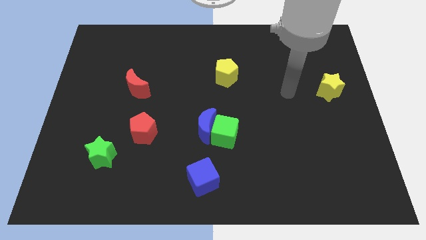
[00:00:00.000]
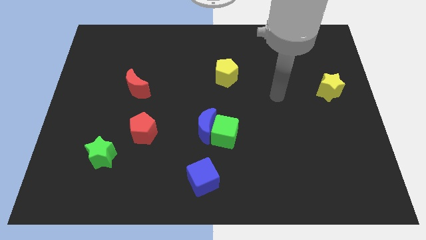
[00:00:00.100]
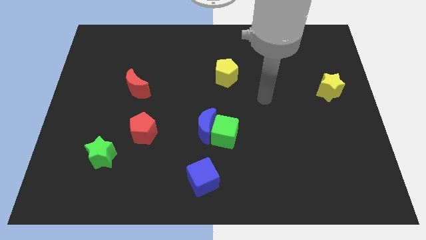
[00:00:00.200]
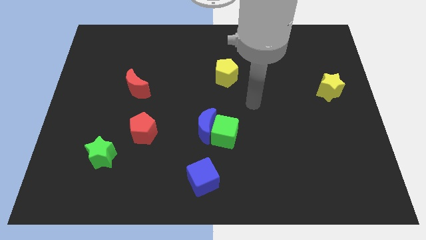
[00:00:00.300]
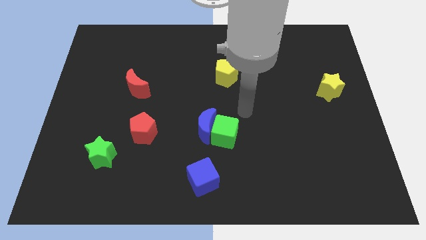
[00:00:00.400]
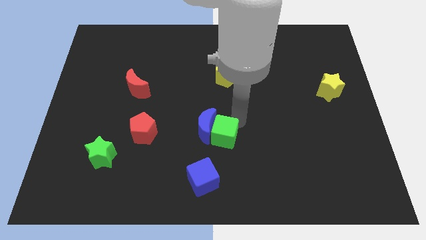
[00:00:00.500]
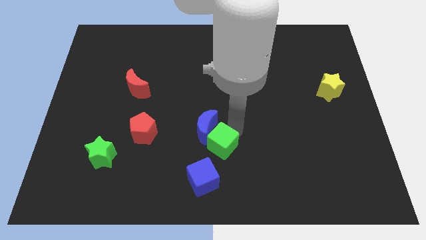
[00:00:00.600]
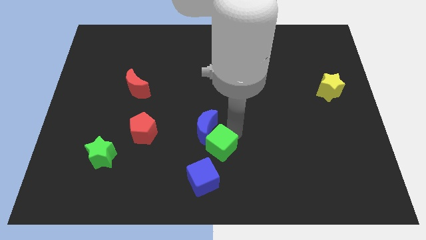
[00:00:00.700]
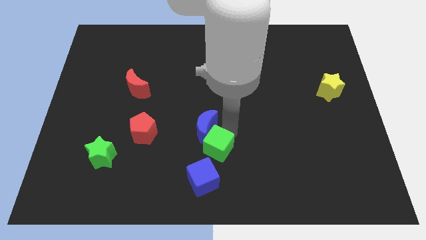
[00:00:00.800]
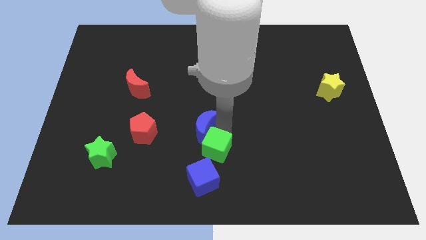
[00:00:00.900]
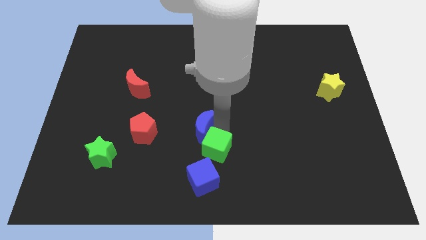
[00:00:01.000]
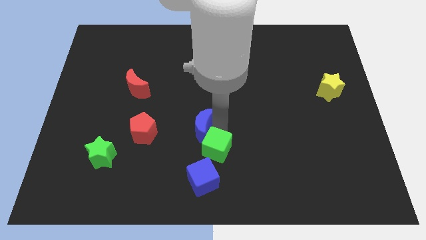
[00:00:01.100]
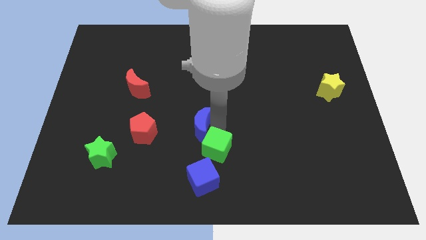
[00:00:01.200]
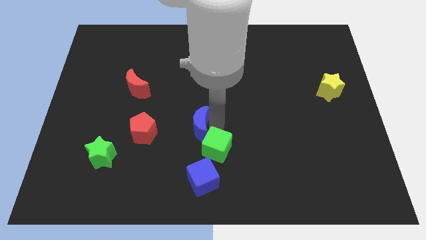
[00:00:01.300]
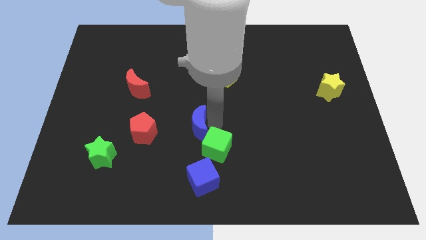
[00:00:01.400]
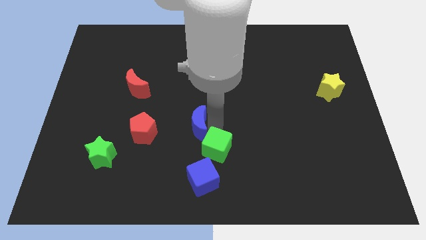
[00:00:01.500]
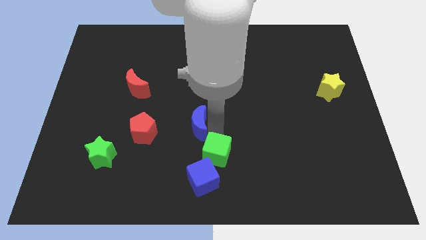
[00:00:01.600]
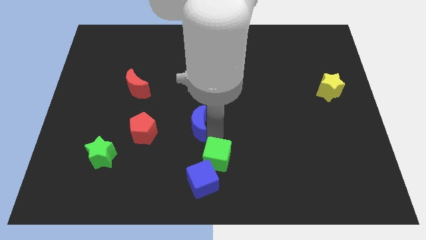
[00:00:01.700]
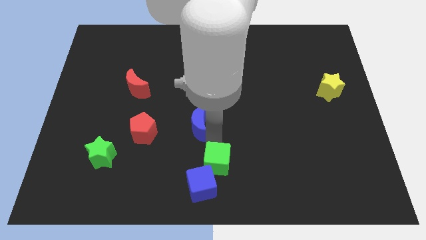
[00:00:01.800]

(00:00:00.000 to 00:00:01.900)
pull the blue moon apart from the green cube

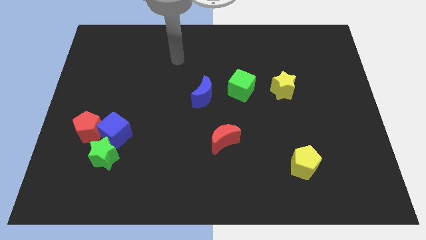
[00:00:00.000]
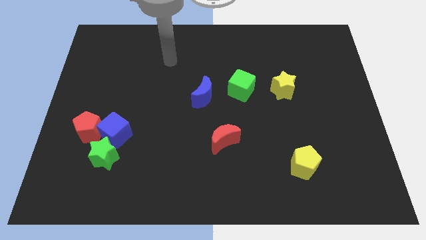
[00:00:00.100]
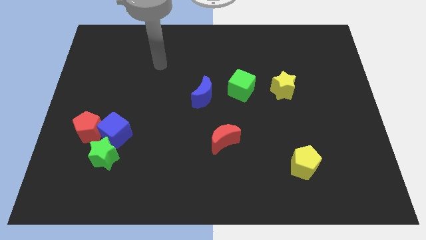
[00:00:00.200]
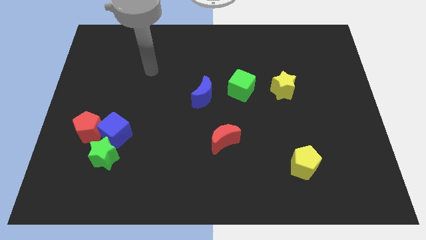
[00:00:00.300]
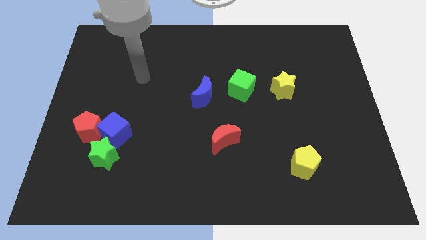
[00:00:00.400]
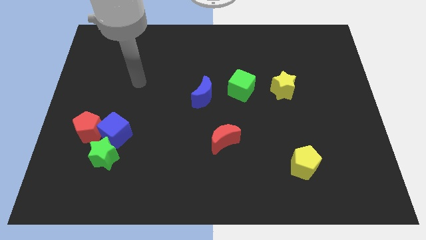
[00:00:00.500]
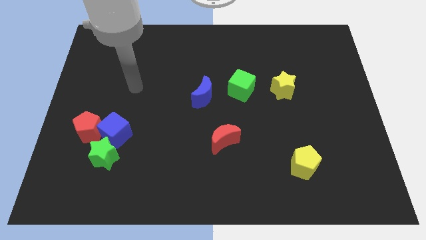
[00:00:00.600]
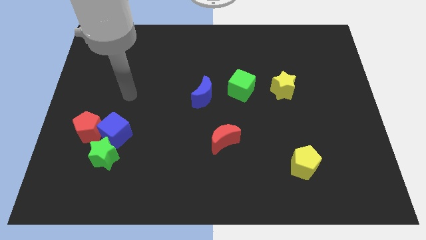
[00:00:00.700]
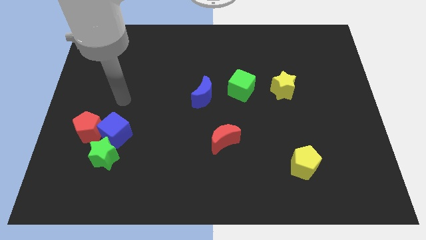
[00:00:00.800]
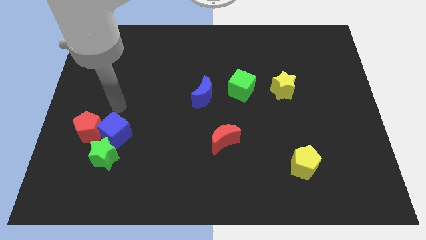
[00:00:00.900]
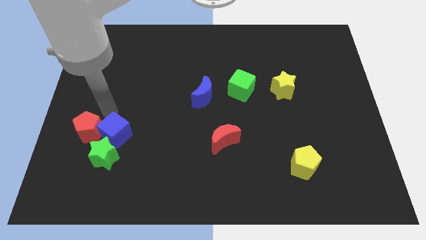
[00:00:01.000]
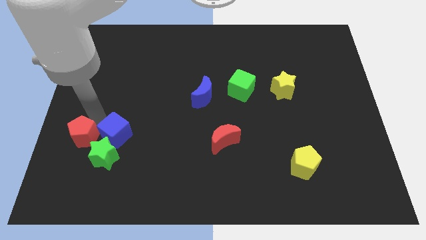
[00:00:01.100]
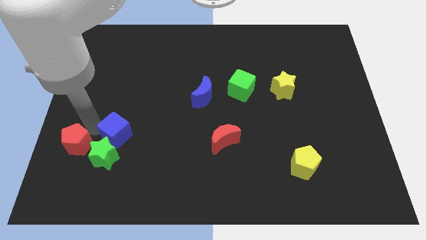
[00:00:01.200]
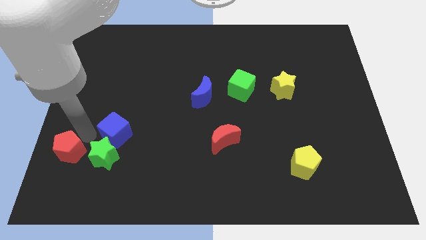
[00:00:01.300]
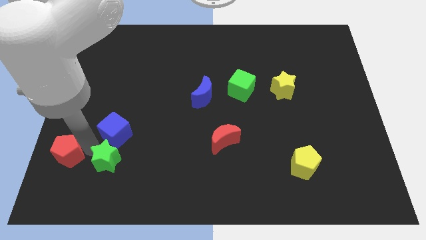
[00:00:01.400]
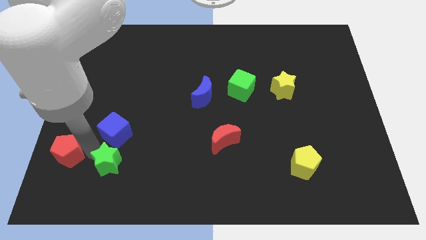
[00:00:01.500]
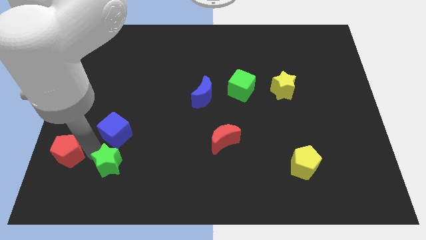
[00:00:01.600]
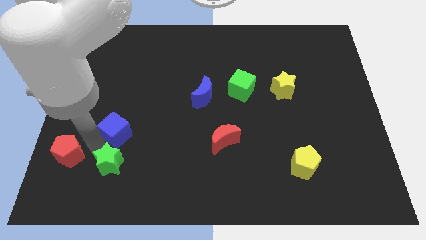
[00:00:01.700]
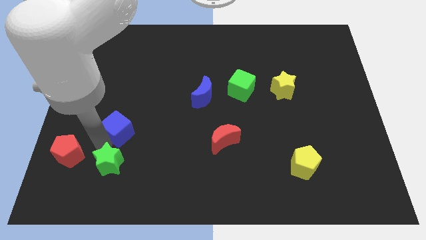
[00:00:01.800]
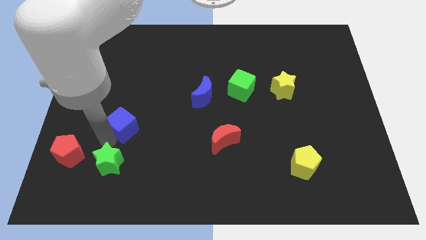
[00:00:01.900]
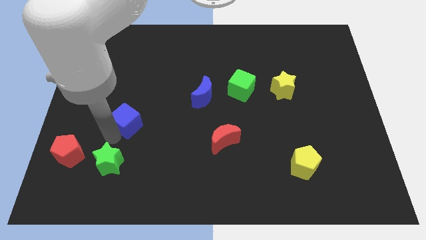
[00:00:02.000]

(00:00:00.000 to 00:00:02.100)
separate the blue cube from the red pentagon and green star

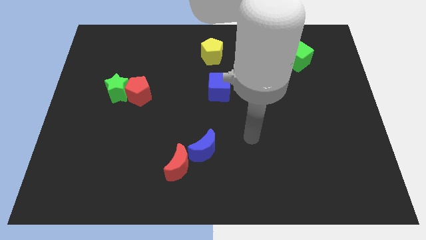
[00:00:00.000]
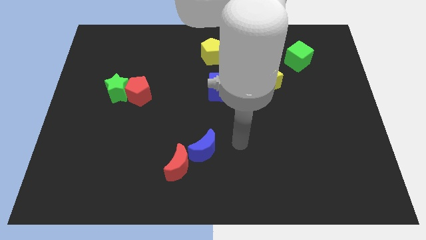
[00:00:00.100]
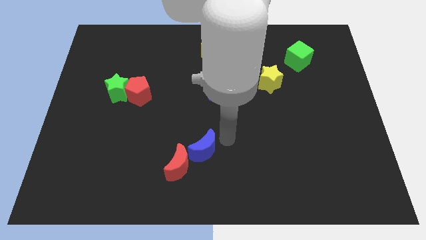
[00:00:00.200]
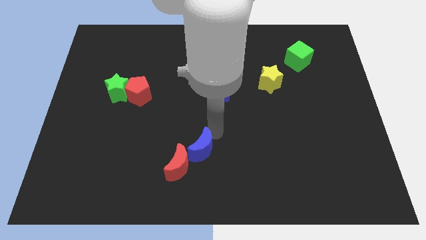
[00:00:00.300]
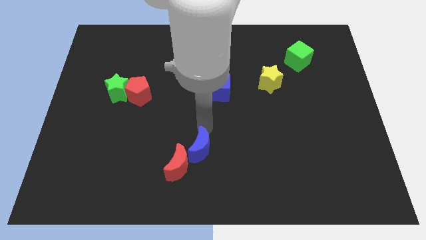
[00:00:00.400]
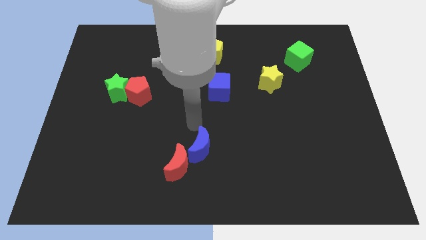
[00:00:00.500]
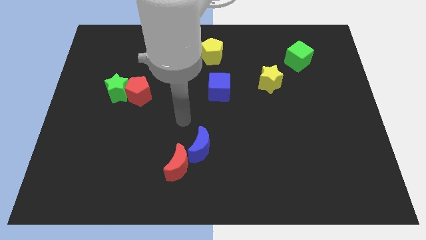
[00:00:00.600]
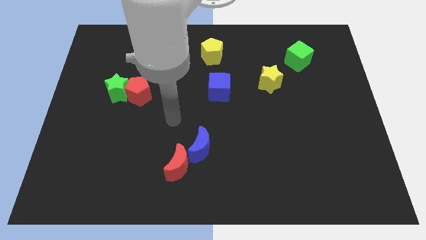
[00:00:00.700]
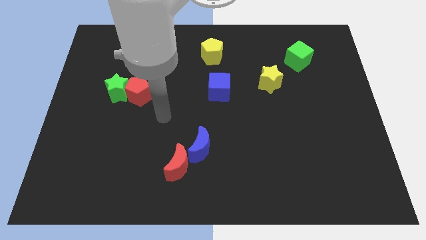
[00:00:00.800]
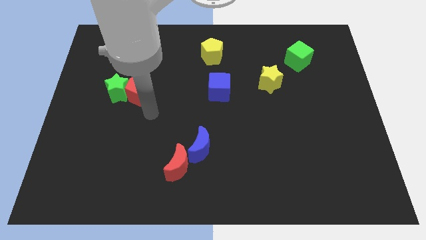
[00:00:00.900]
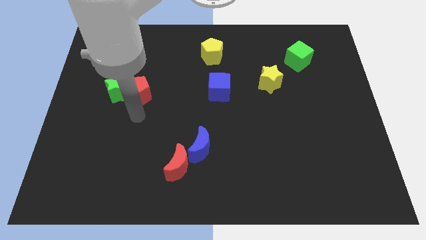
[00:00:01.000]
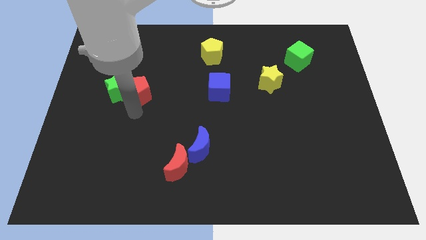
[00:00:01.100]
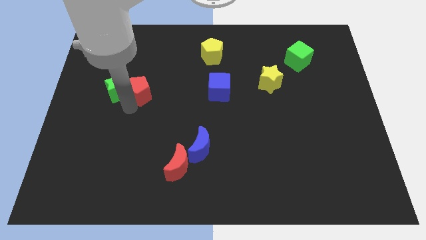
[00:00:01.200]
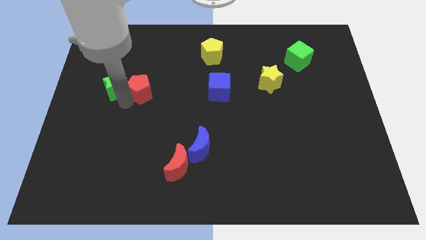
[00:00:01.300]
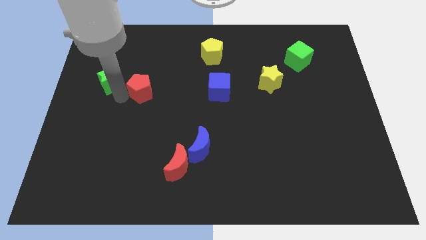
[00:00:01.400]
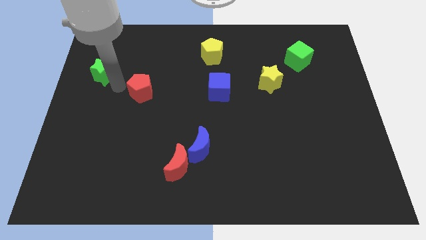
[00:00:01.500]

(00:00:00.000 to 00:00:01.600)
pull the red pentagon apart from the green star

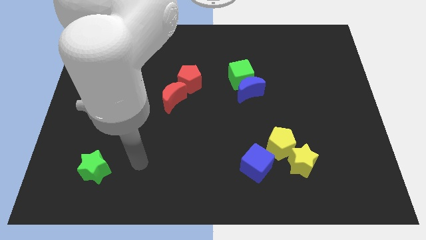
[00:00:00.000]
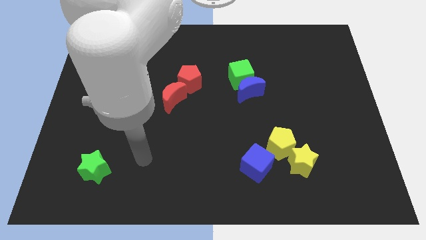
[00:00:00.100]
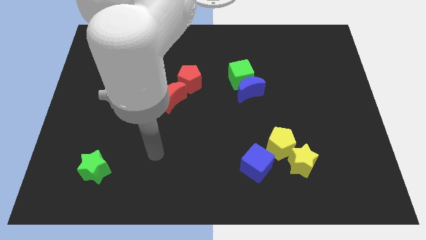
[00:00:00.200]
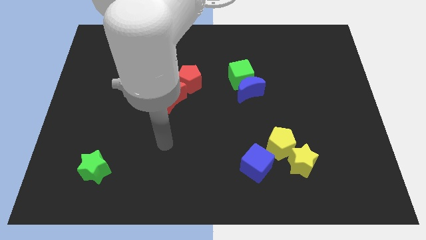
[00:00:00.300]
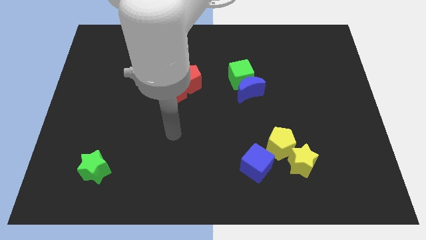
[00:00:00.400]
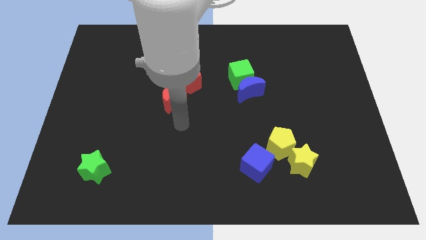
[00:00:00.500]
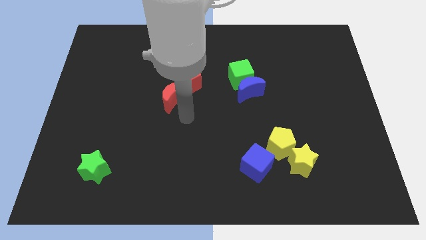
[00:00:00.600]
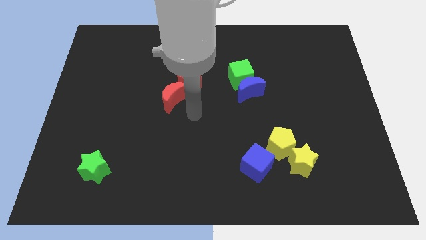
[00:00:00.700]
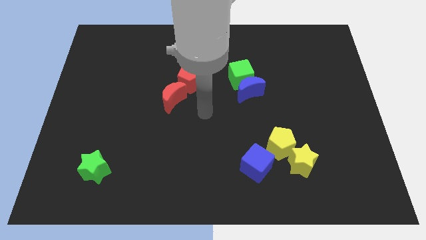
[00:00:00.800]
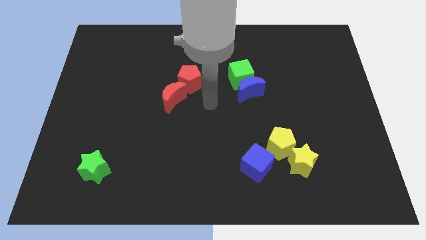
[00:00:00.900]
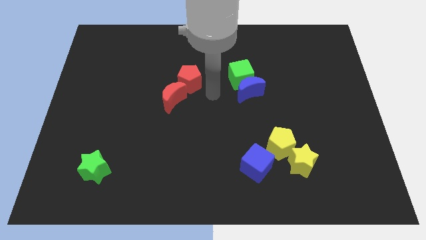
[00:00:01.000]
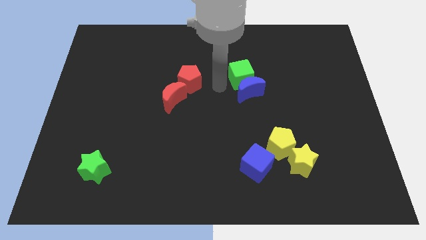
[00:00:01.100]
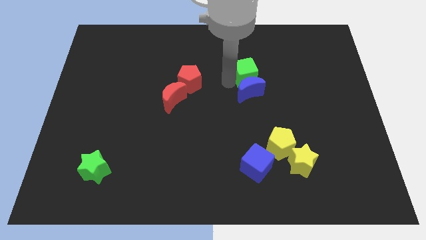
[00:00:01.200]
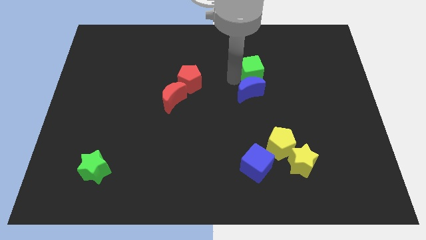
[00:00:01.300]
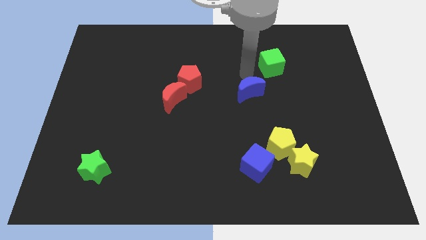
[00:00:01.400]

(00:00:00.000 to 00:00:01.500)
move the blue moon away from the green cube

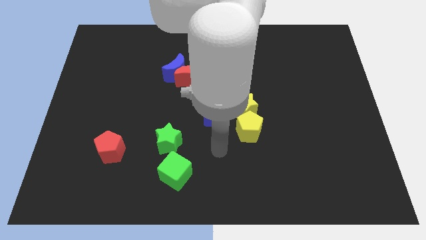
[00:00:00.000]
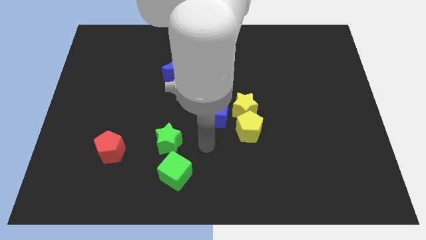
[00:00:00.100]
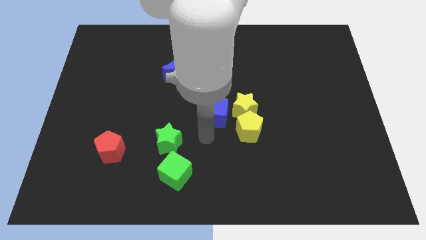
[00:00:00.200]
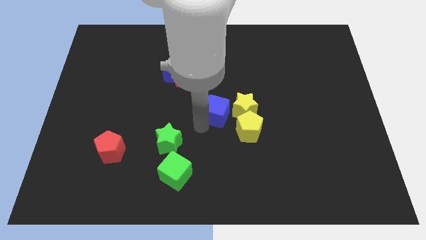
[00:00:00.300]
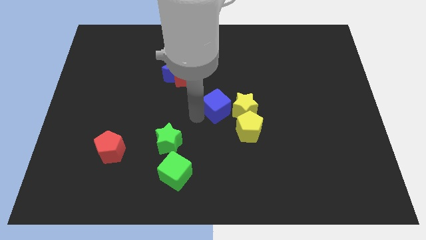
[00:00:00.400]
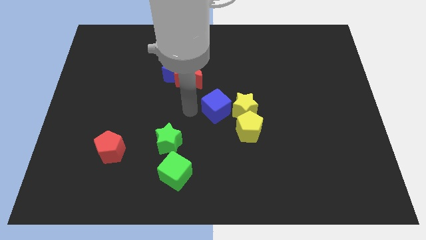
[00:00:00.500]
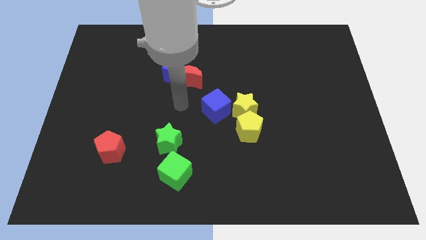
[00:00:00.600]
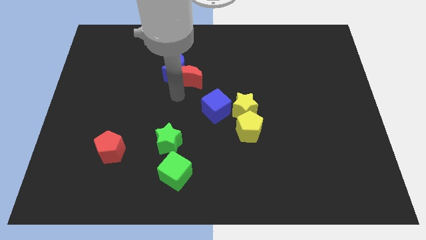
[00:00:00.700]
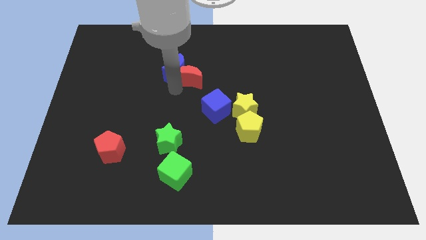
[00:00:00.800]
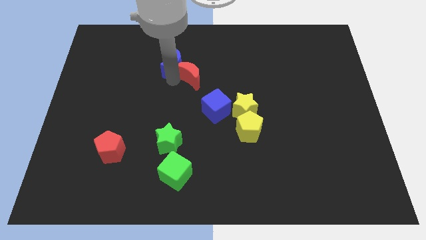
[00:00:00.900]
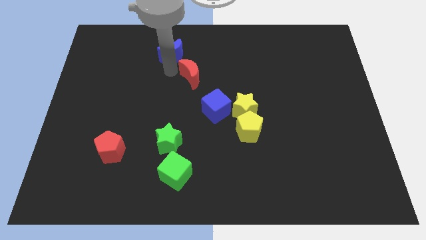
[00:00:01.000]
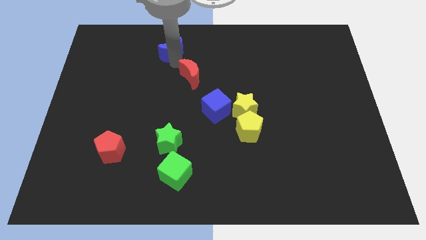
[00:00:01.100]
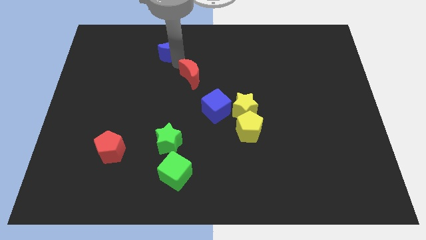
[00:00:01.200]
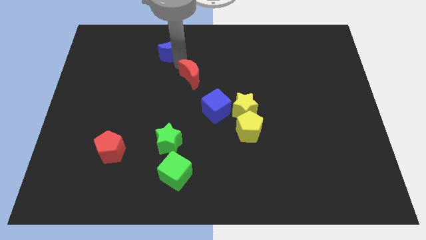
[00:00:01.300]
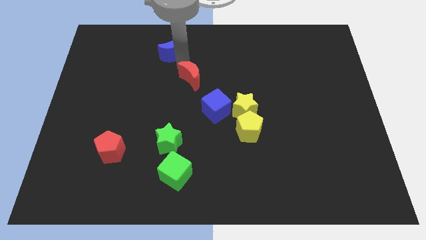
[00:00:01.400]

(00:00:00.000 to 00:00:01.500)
pull the red moon apart from the blue moon

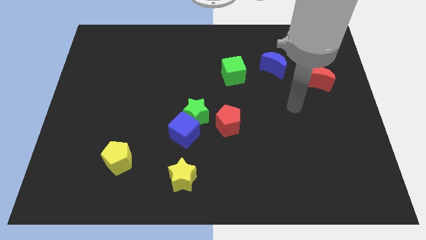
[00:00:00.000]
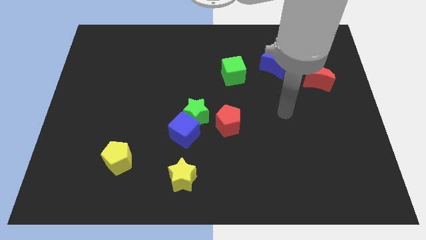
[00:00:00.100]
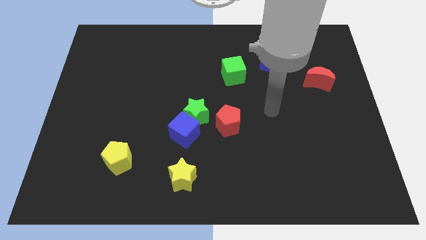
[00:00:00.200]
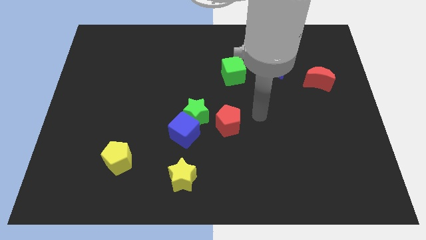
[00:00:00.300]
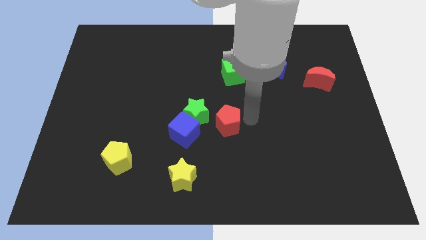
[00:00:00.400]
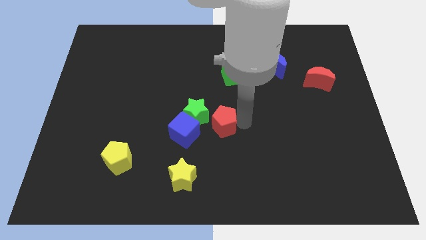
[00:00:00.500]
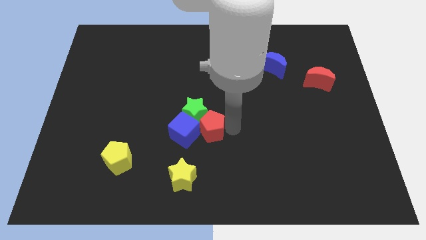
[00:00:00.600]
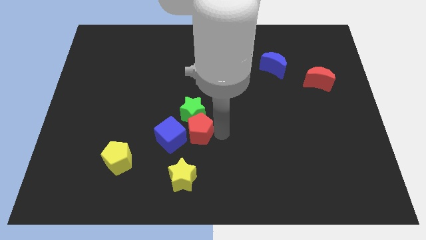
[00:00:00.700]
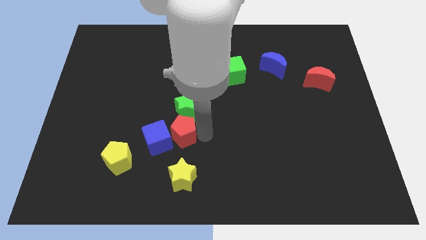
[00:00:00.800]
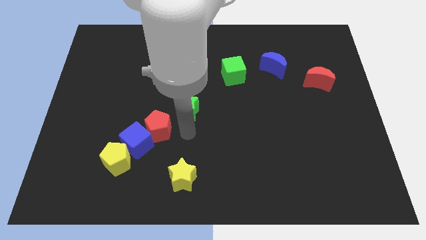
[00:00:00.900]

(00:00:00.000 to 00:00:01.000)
pull the green star apart from the blue cube and red pentagon
